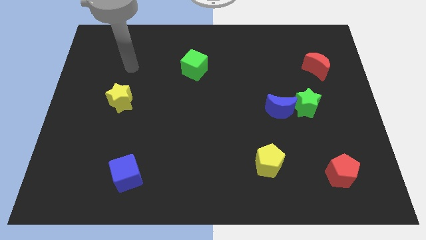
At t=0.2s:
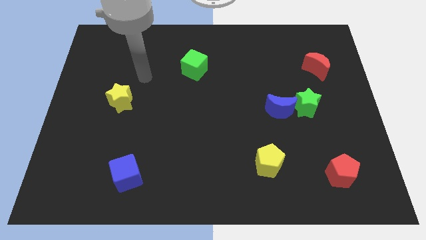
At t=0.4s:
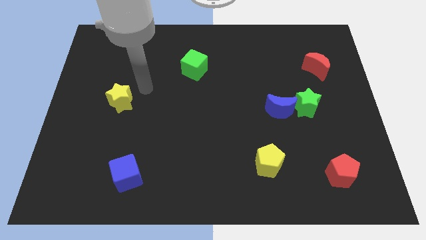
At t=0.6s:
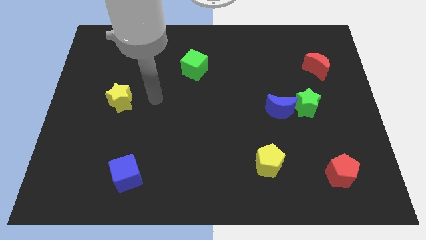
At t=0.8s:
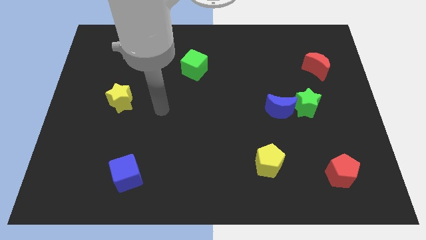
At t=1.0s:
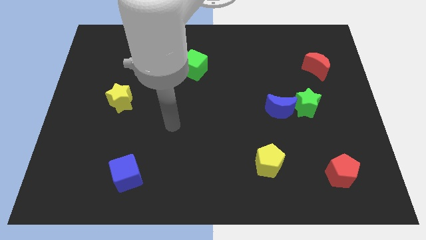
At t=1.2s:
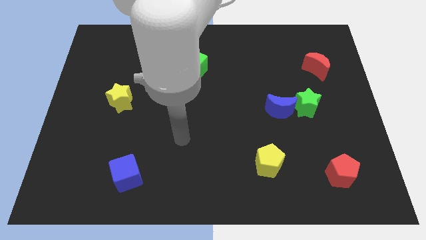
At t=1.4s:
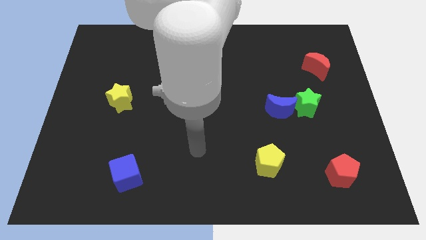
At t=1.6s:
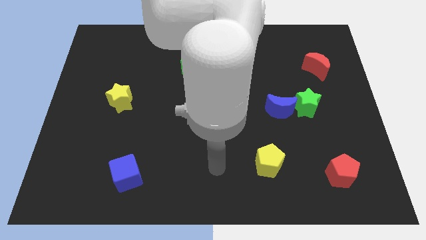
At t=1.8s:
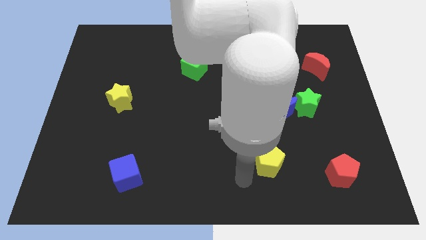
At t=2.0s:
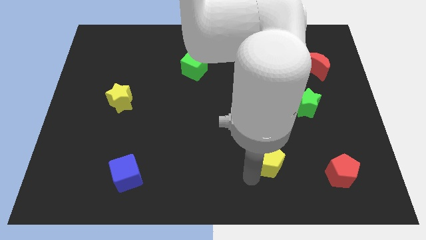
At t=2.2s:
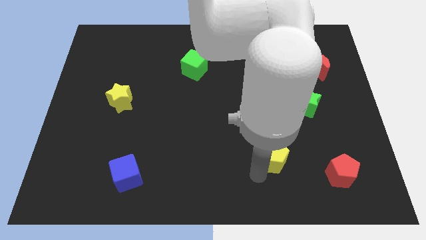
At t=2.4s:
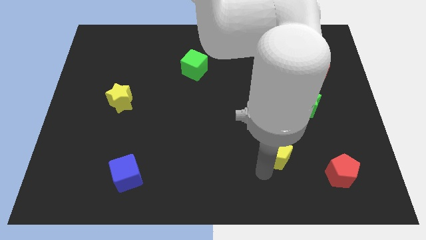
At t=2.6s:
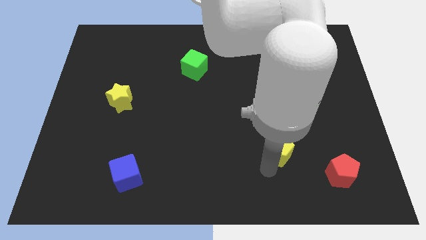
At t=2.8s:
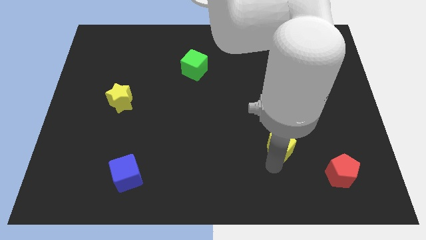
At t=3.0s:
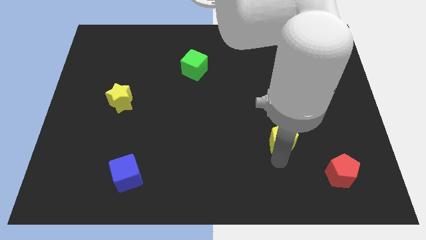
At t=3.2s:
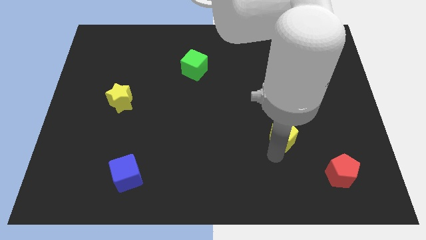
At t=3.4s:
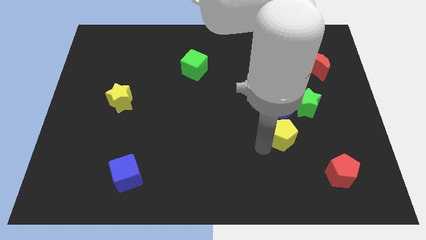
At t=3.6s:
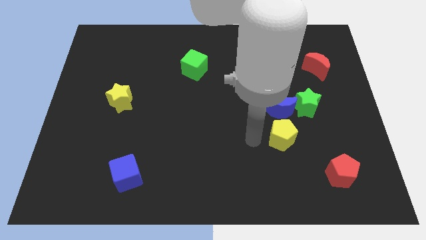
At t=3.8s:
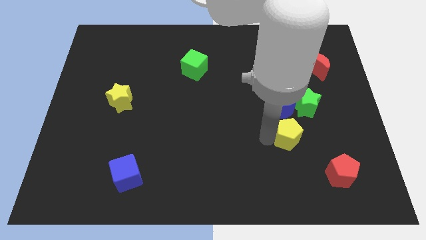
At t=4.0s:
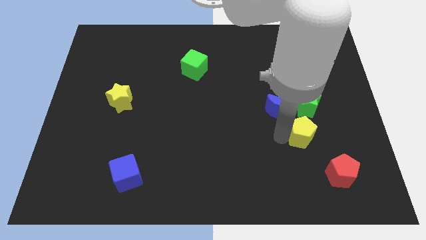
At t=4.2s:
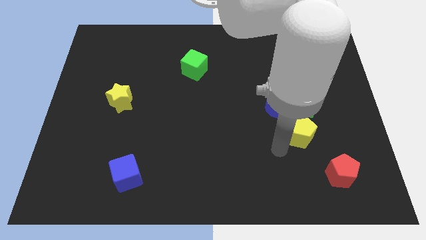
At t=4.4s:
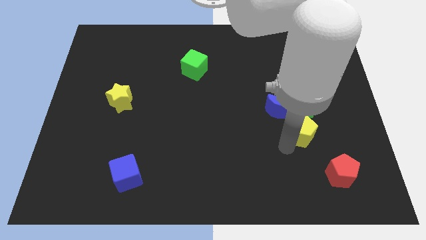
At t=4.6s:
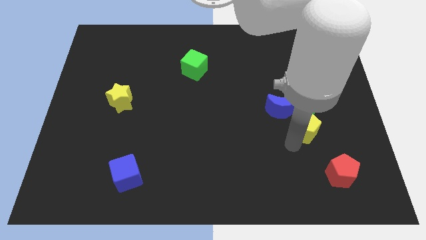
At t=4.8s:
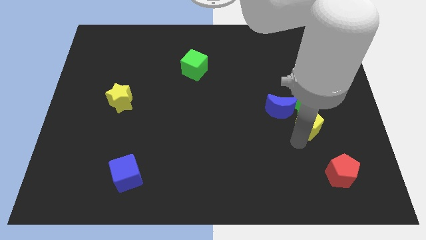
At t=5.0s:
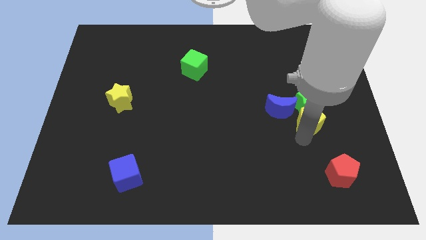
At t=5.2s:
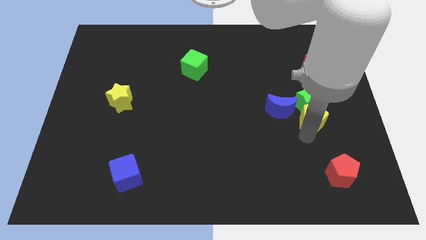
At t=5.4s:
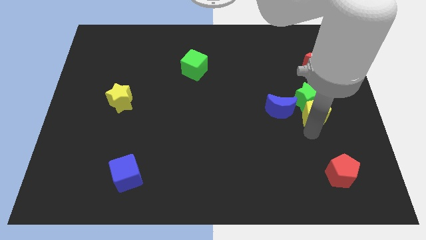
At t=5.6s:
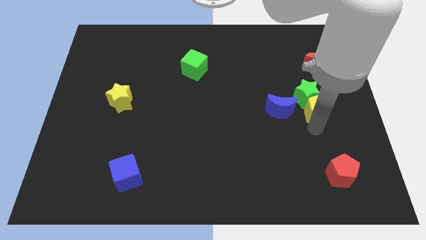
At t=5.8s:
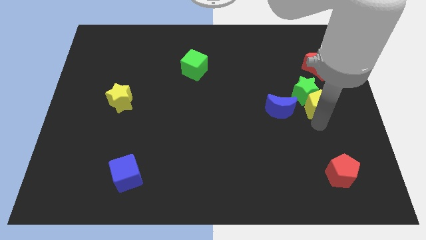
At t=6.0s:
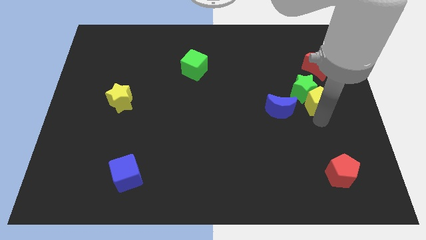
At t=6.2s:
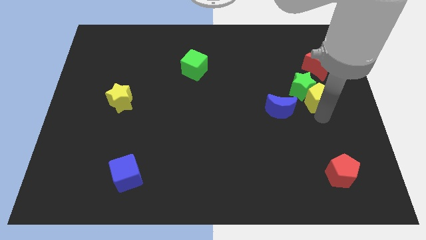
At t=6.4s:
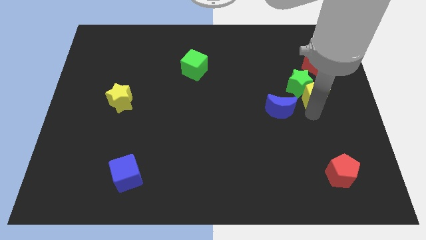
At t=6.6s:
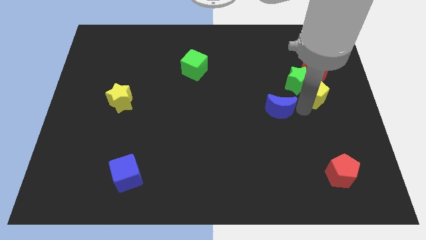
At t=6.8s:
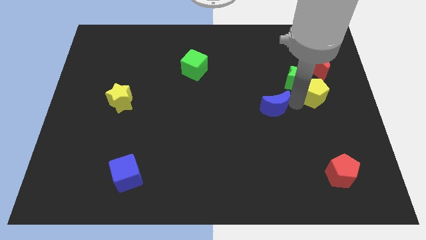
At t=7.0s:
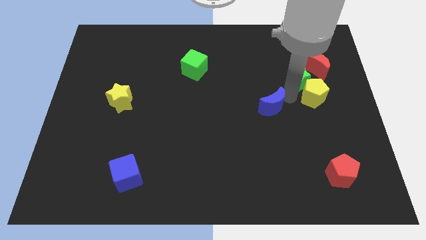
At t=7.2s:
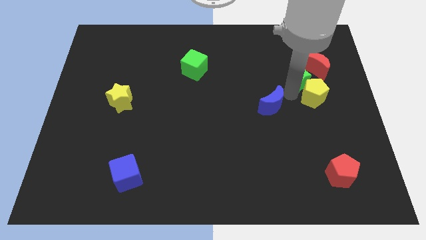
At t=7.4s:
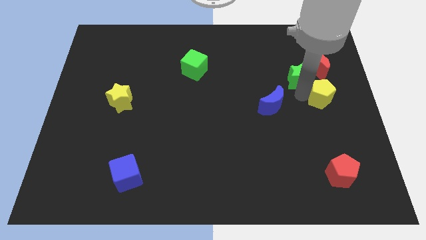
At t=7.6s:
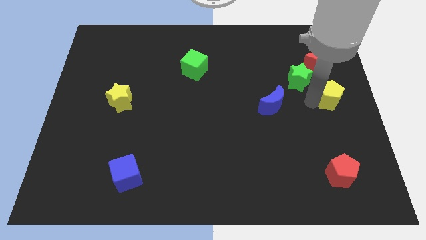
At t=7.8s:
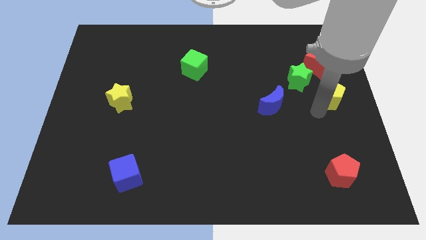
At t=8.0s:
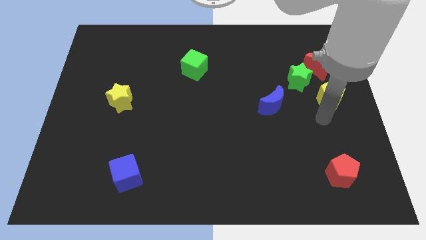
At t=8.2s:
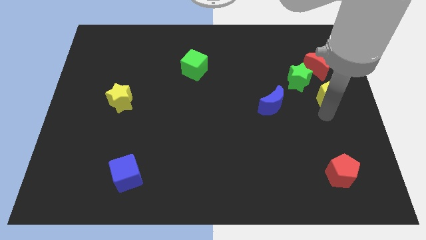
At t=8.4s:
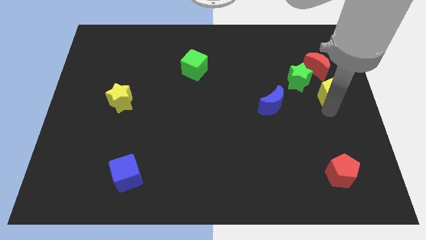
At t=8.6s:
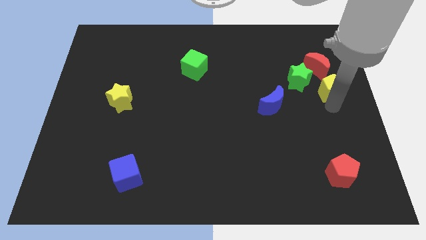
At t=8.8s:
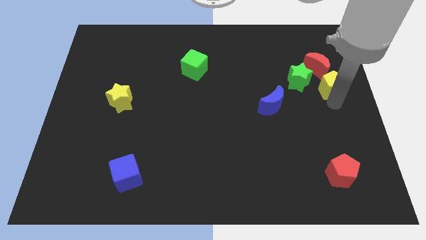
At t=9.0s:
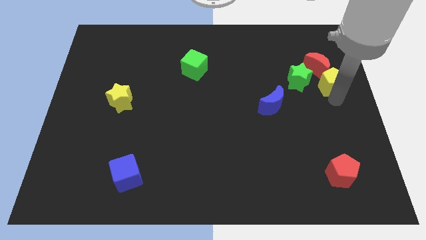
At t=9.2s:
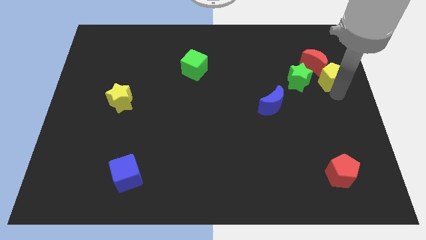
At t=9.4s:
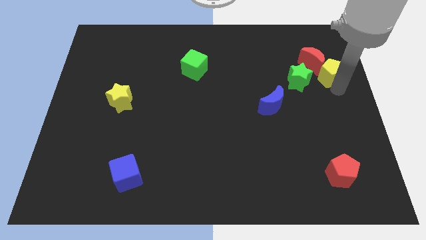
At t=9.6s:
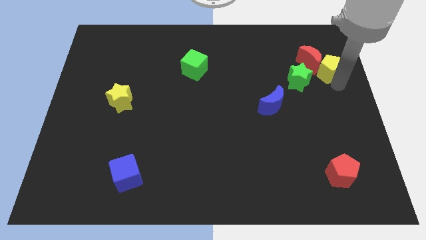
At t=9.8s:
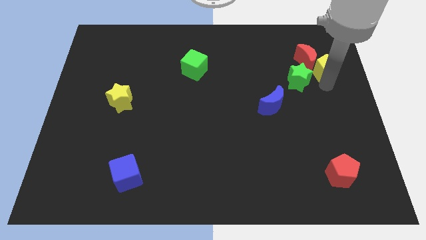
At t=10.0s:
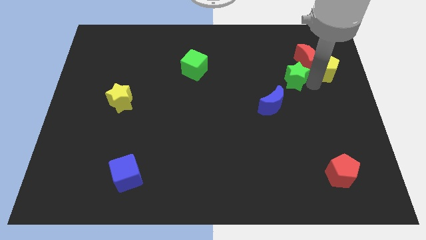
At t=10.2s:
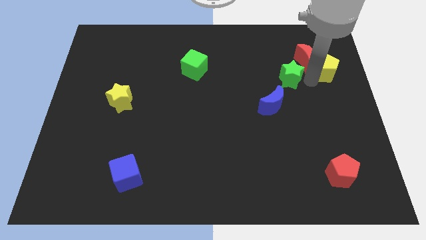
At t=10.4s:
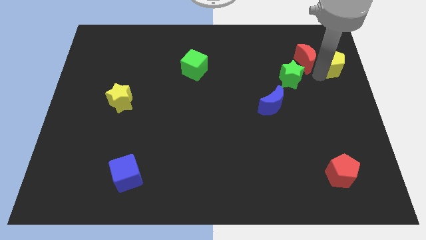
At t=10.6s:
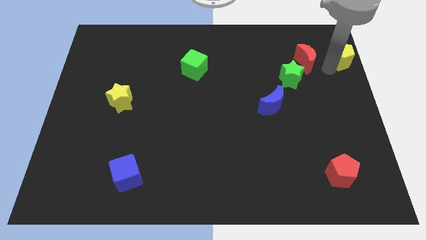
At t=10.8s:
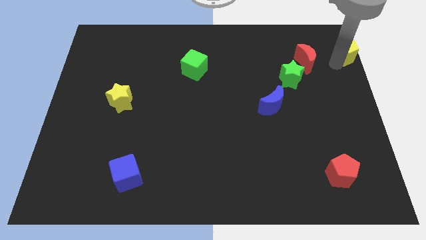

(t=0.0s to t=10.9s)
put the yellow pentagon to the top right corner

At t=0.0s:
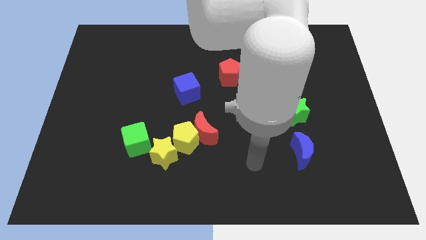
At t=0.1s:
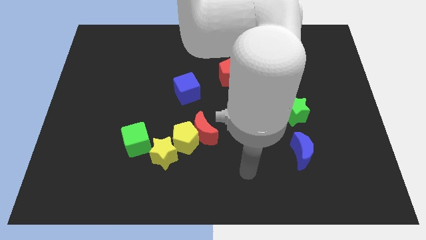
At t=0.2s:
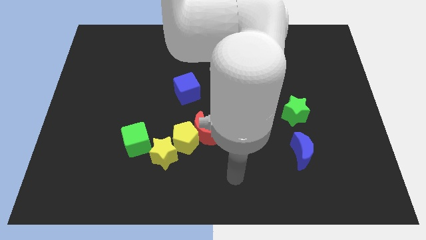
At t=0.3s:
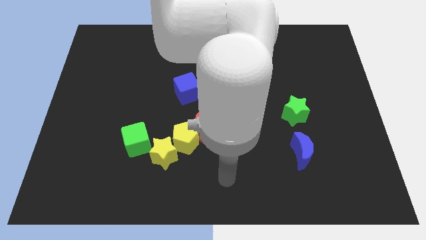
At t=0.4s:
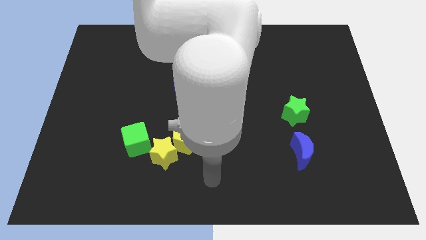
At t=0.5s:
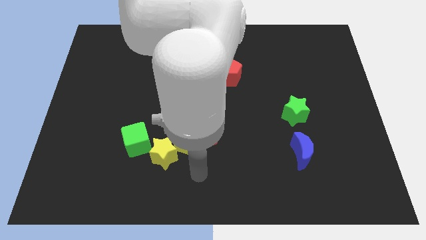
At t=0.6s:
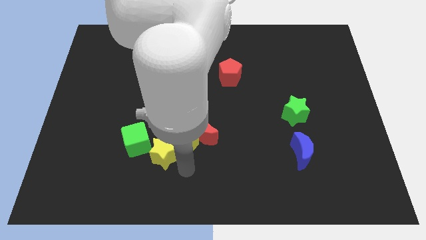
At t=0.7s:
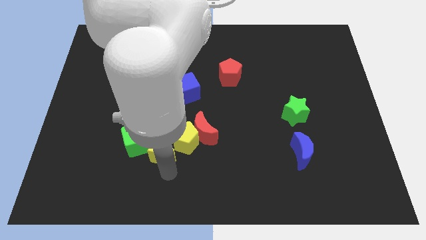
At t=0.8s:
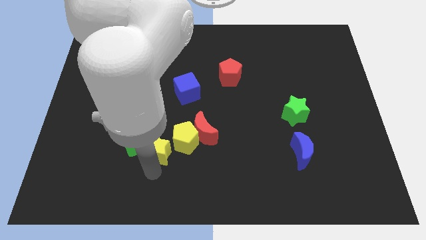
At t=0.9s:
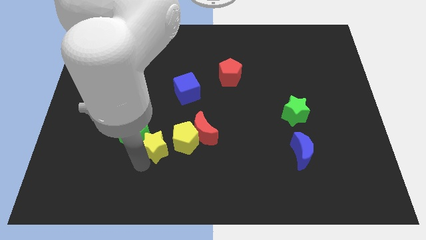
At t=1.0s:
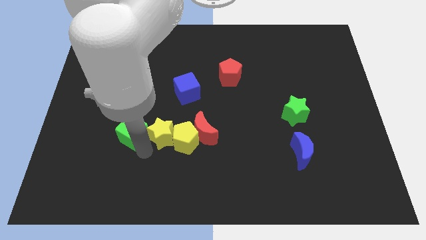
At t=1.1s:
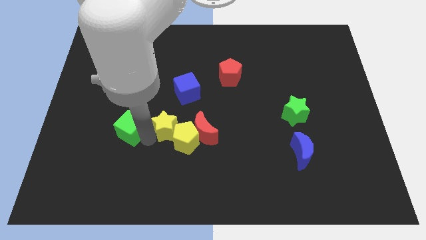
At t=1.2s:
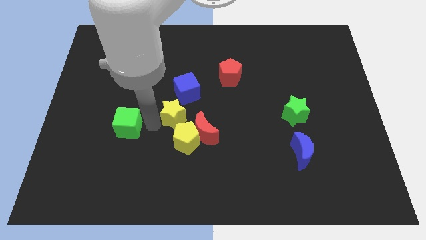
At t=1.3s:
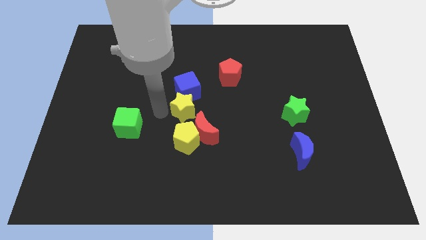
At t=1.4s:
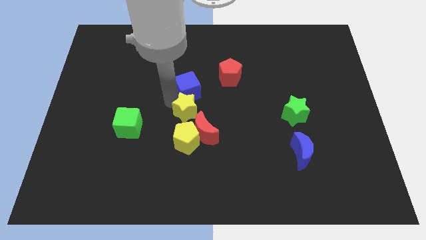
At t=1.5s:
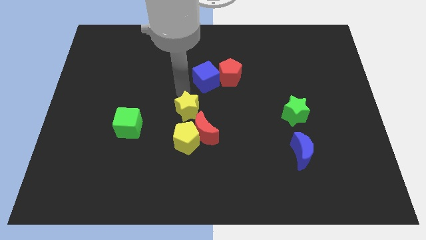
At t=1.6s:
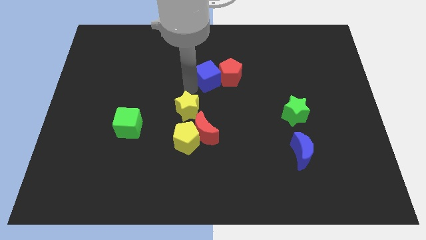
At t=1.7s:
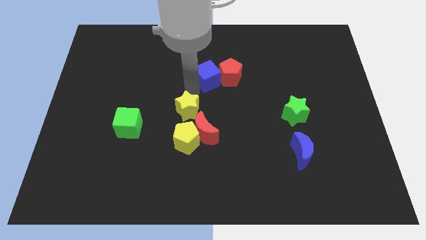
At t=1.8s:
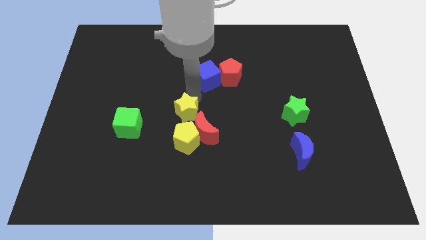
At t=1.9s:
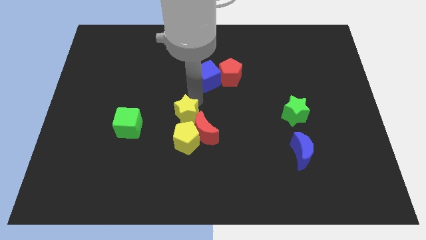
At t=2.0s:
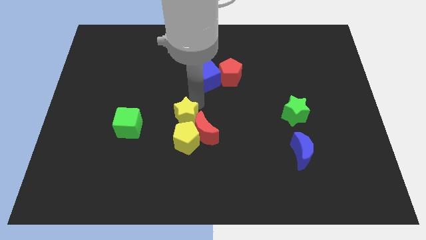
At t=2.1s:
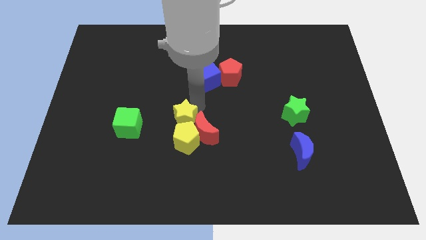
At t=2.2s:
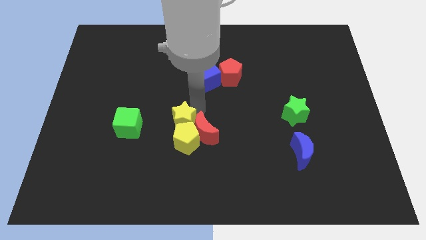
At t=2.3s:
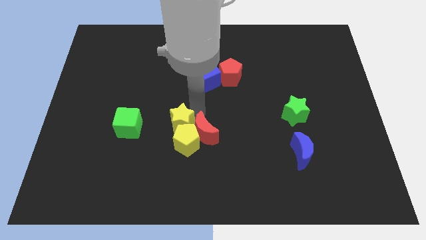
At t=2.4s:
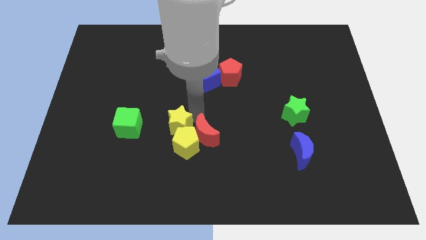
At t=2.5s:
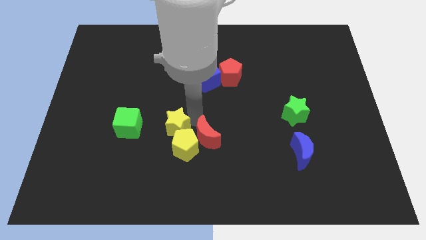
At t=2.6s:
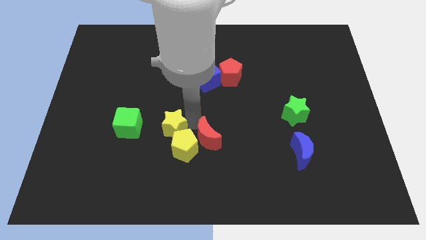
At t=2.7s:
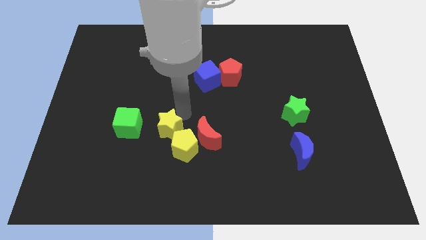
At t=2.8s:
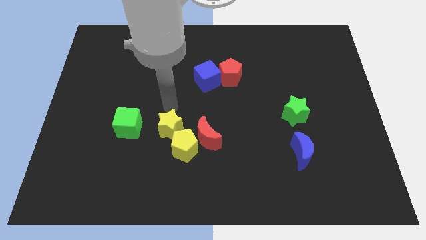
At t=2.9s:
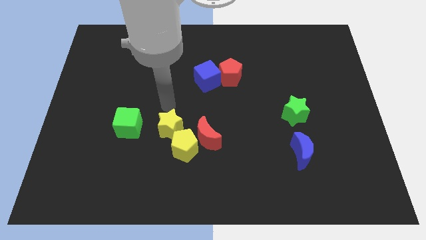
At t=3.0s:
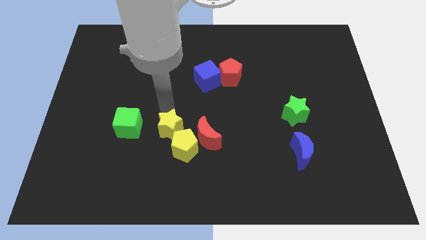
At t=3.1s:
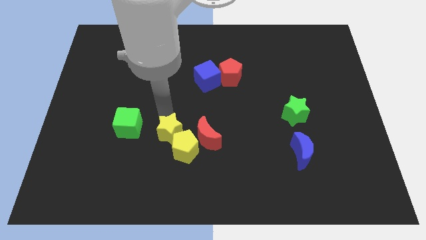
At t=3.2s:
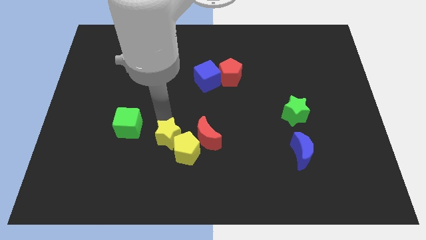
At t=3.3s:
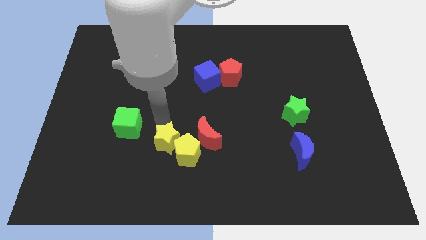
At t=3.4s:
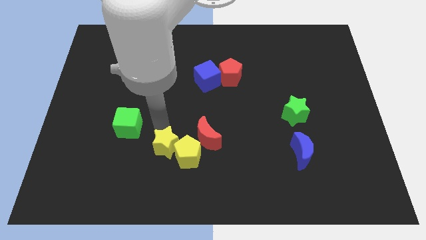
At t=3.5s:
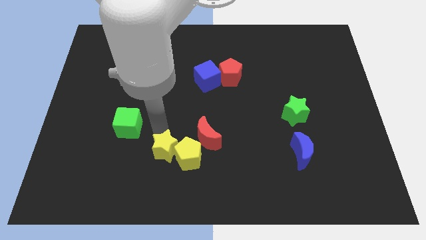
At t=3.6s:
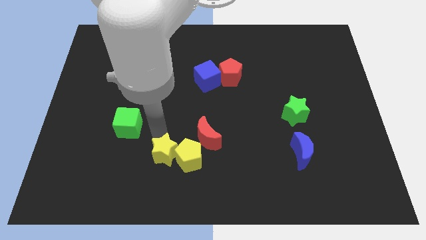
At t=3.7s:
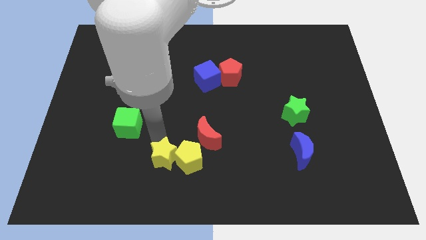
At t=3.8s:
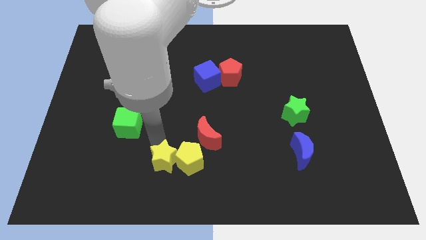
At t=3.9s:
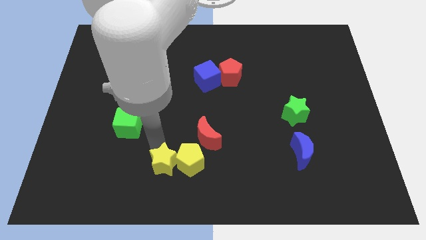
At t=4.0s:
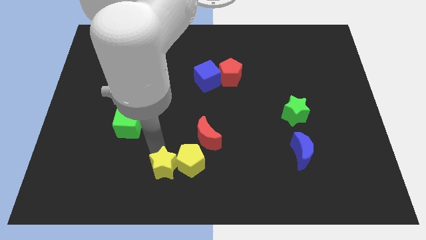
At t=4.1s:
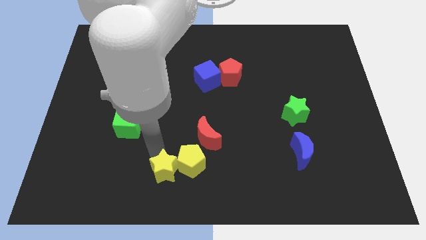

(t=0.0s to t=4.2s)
slide the yellow star to the bottom side
